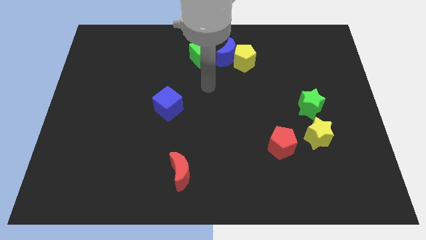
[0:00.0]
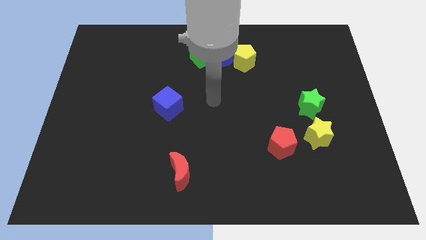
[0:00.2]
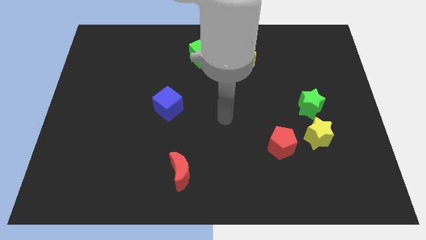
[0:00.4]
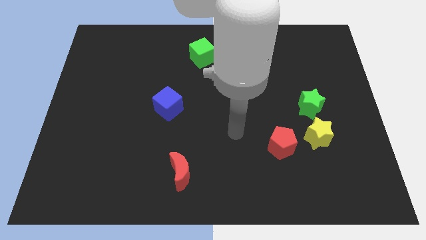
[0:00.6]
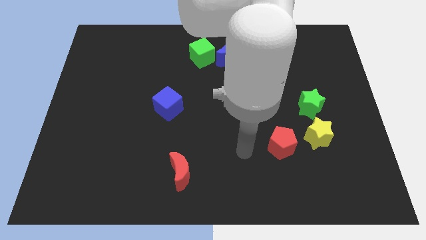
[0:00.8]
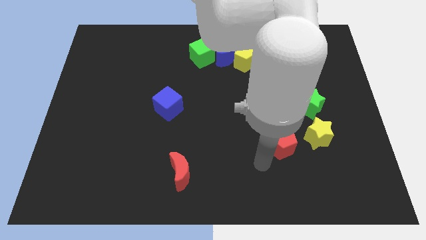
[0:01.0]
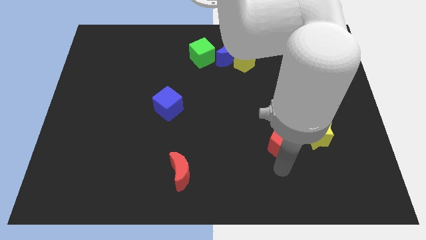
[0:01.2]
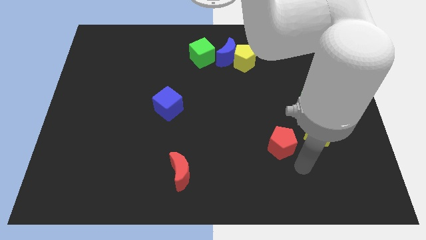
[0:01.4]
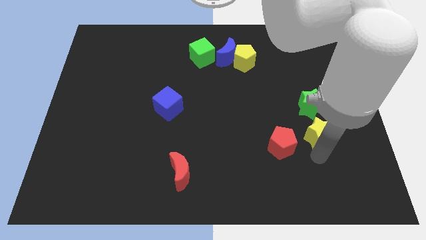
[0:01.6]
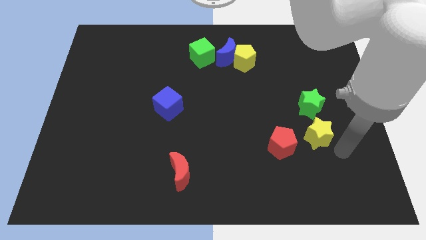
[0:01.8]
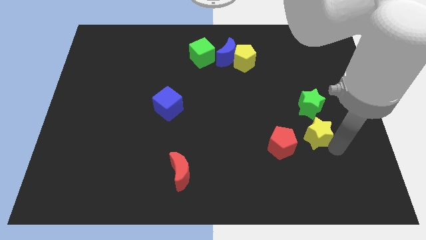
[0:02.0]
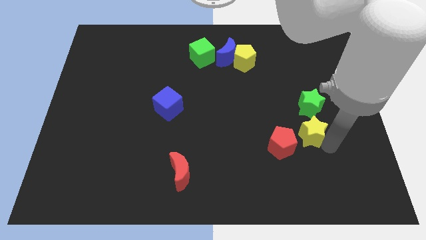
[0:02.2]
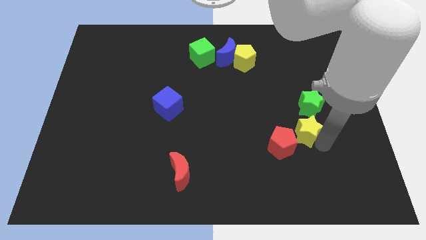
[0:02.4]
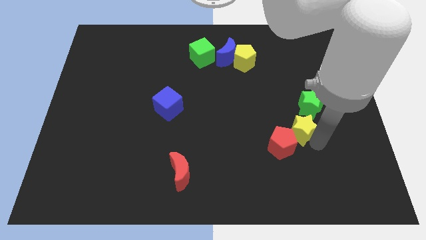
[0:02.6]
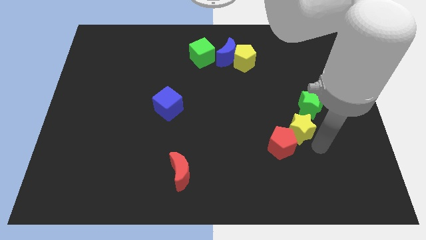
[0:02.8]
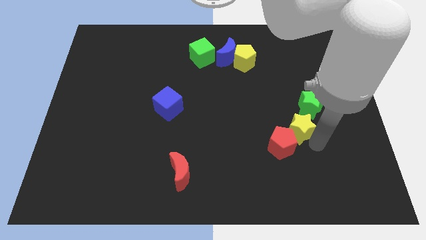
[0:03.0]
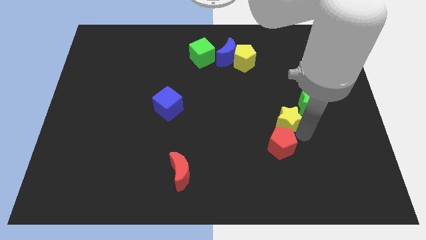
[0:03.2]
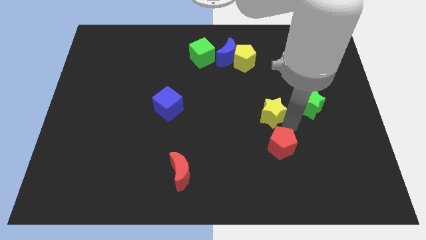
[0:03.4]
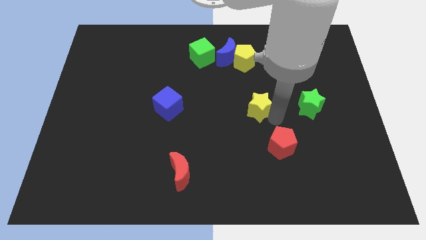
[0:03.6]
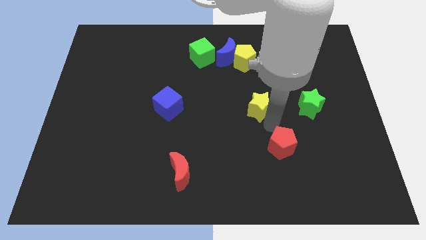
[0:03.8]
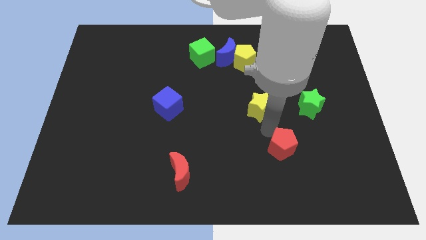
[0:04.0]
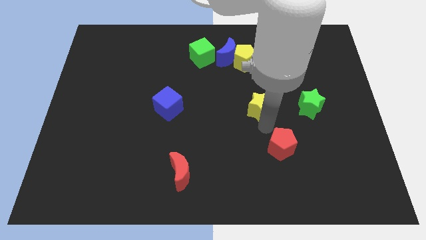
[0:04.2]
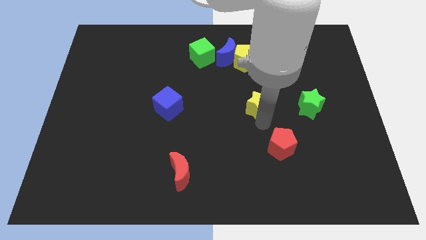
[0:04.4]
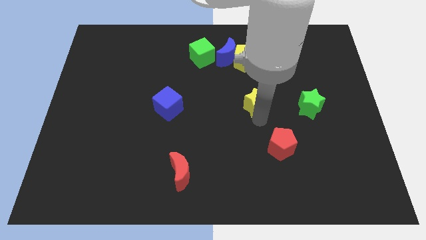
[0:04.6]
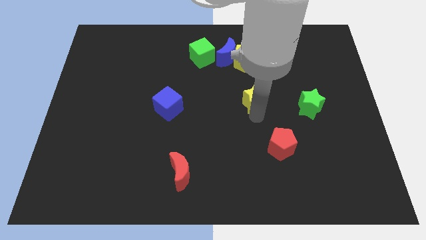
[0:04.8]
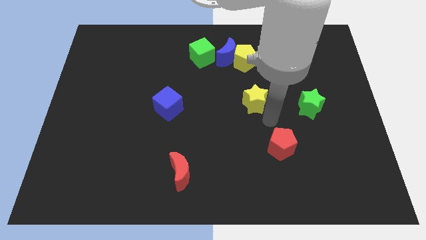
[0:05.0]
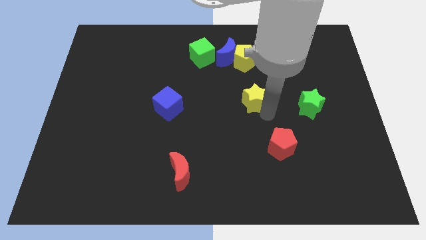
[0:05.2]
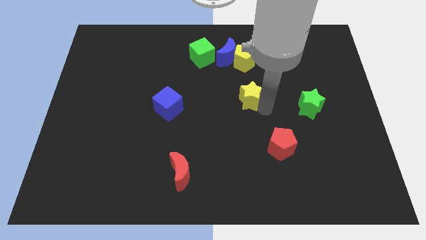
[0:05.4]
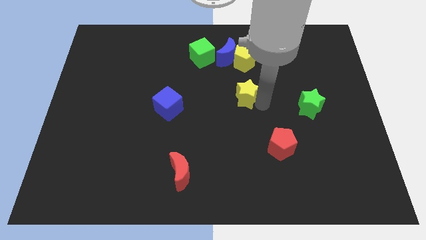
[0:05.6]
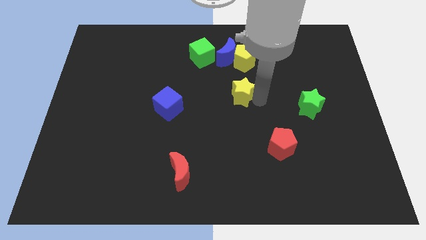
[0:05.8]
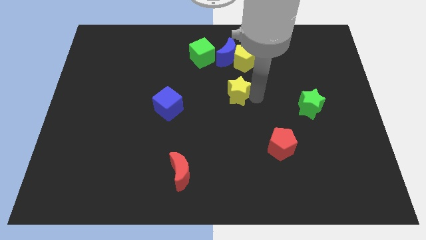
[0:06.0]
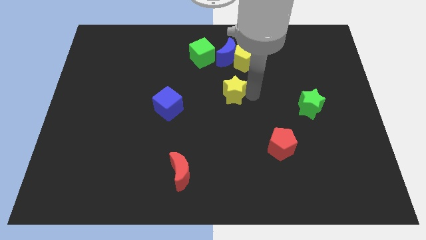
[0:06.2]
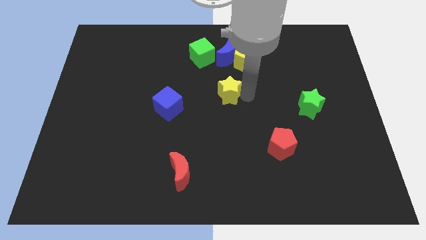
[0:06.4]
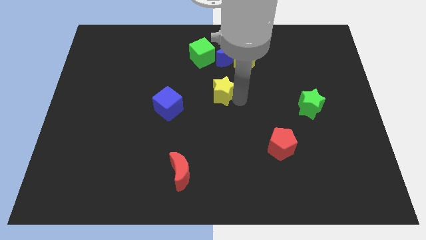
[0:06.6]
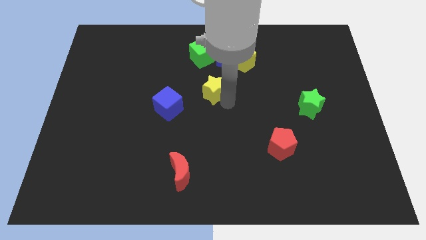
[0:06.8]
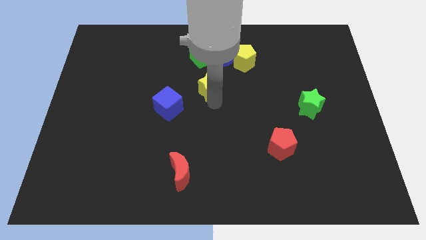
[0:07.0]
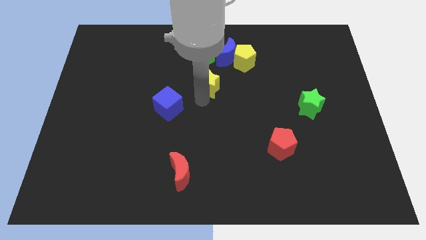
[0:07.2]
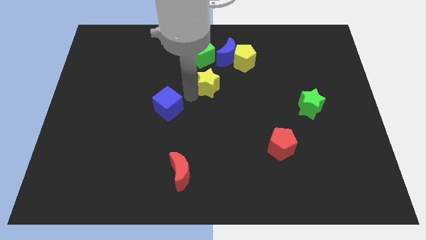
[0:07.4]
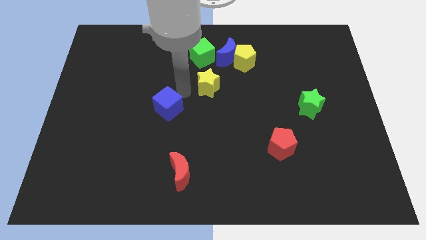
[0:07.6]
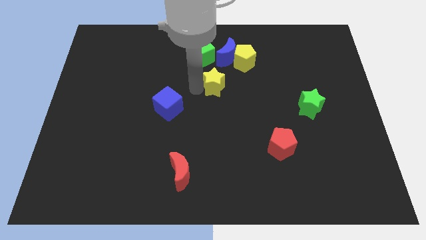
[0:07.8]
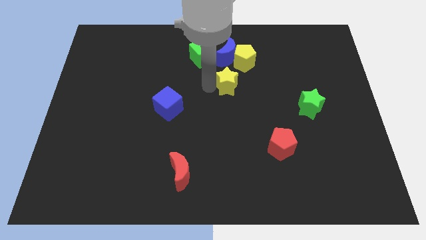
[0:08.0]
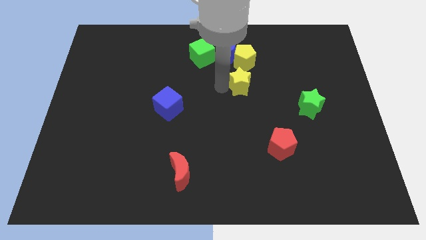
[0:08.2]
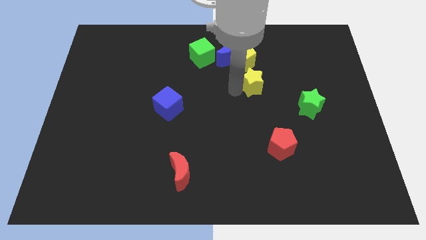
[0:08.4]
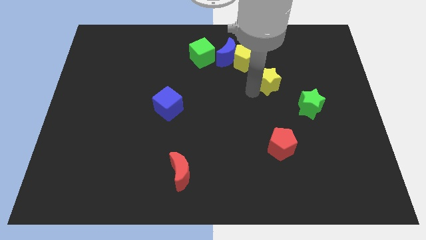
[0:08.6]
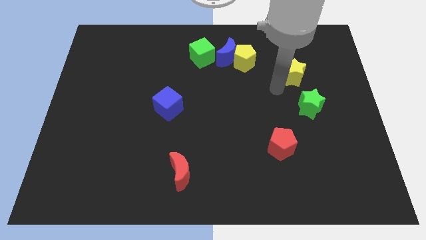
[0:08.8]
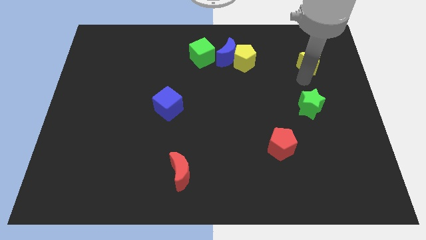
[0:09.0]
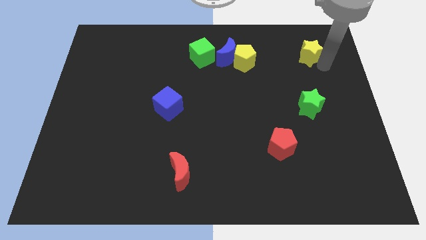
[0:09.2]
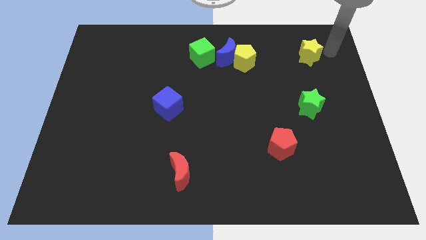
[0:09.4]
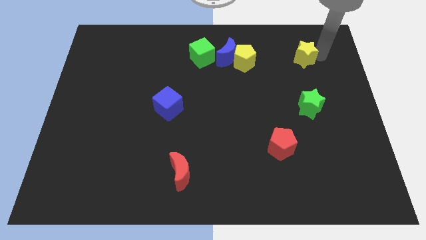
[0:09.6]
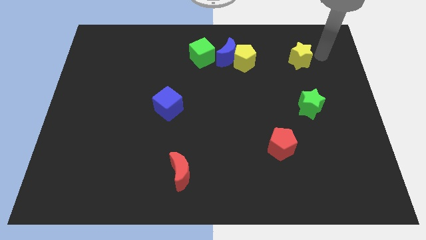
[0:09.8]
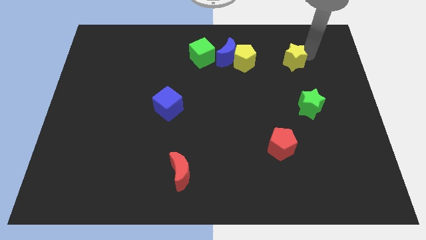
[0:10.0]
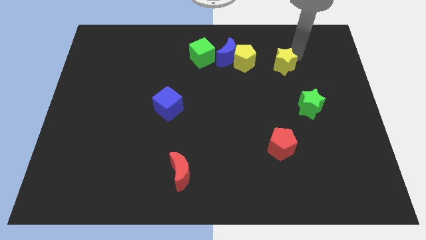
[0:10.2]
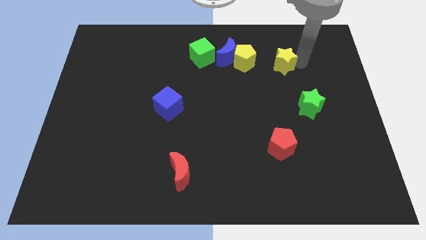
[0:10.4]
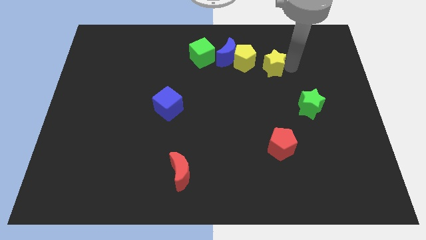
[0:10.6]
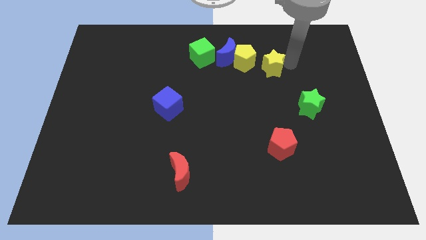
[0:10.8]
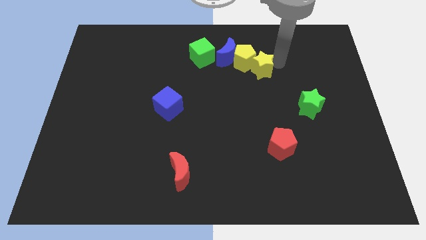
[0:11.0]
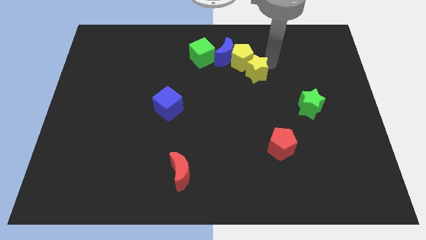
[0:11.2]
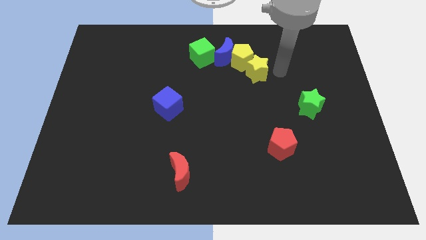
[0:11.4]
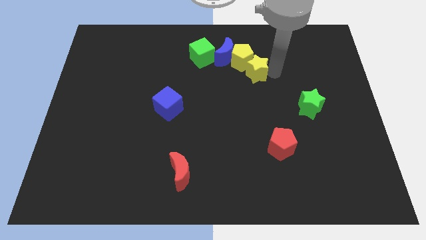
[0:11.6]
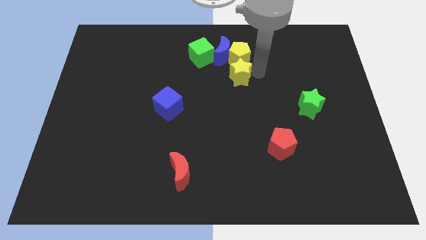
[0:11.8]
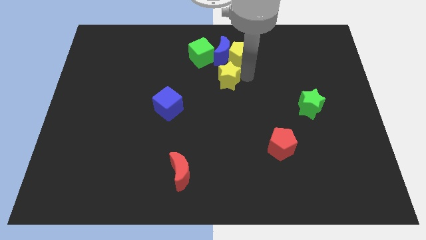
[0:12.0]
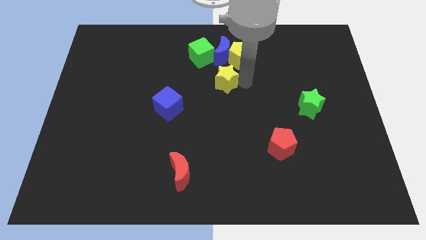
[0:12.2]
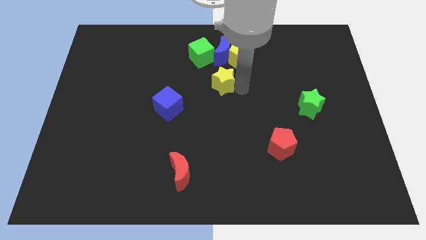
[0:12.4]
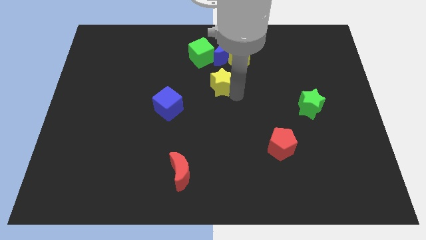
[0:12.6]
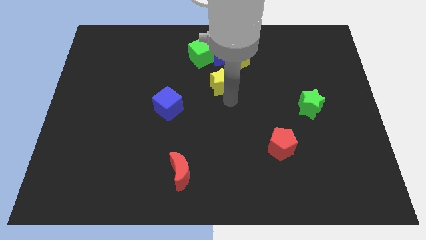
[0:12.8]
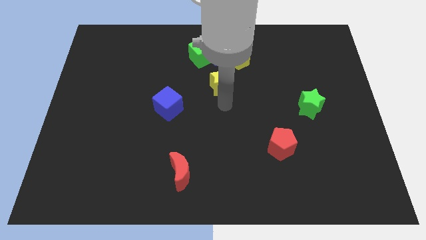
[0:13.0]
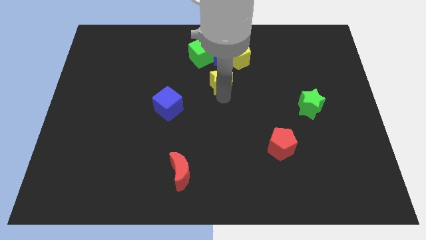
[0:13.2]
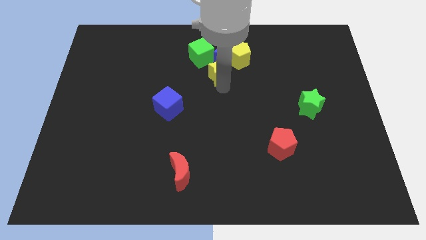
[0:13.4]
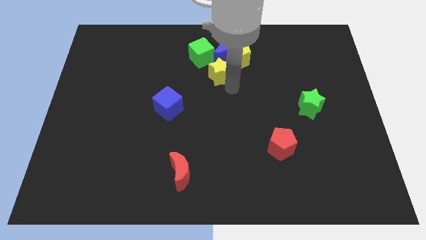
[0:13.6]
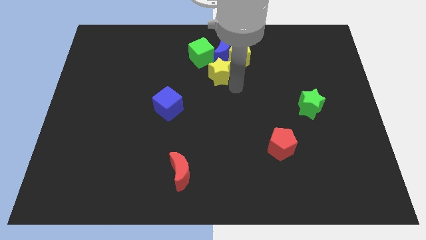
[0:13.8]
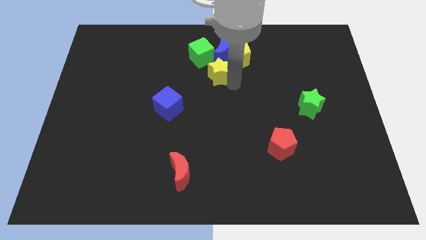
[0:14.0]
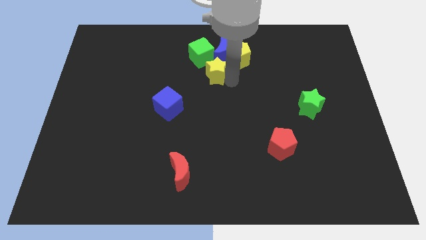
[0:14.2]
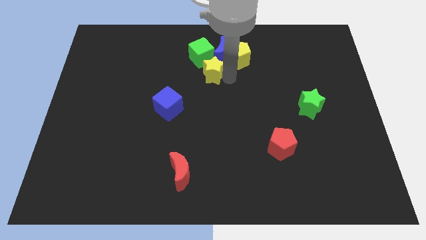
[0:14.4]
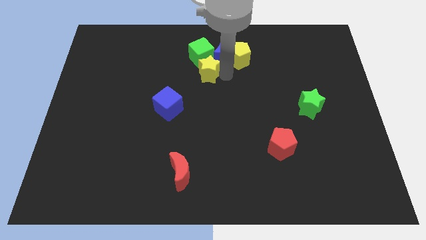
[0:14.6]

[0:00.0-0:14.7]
slide the yellow star next to the green cube
